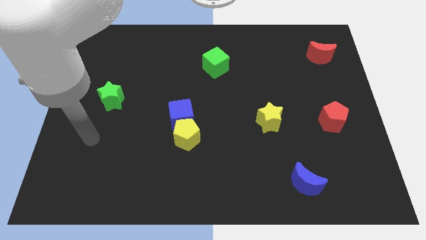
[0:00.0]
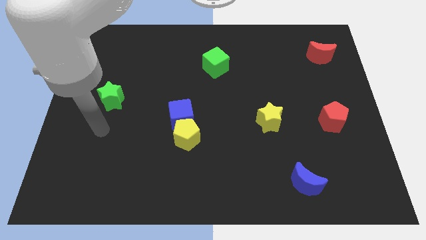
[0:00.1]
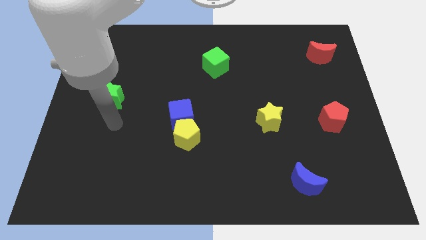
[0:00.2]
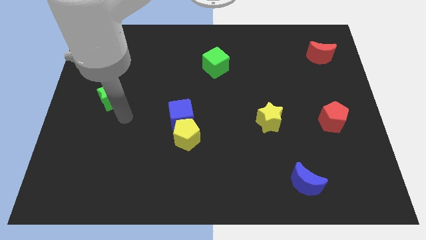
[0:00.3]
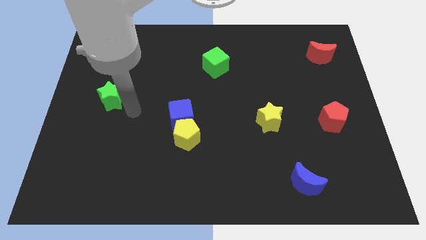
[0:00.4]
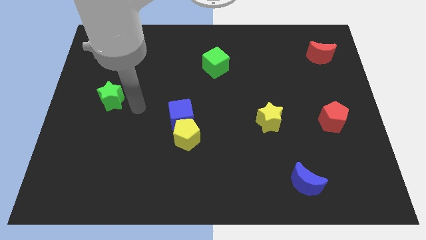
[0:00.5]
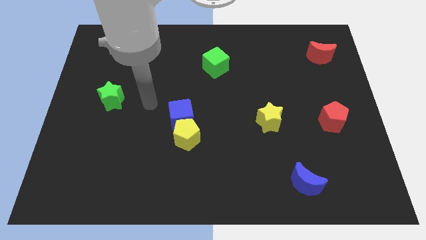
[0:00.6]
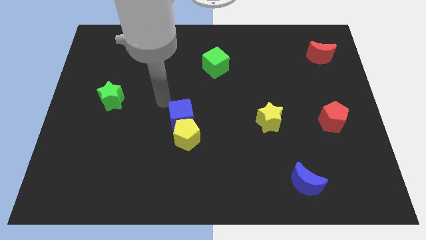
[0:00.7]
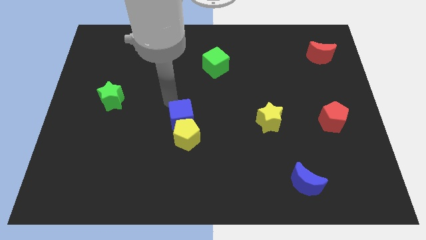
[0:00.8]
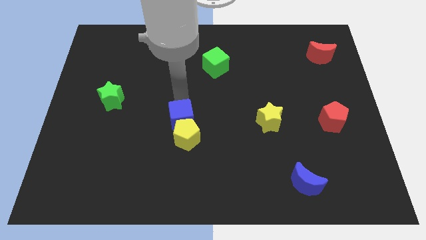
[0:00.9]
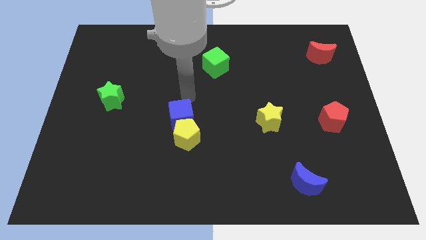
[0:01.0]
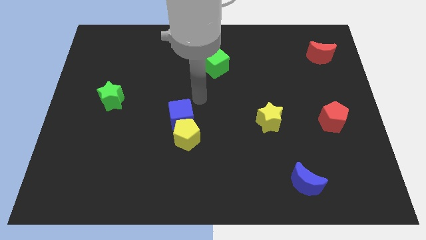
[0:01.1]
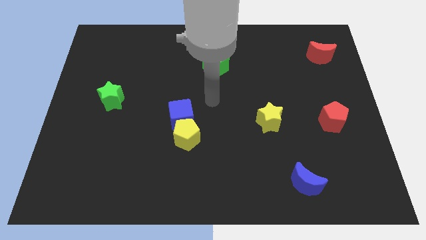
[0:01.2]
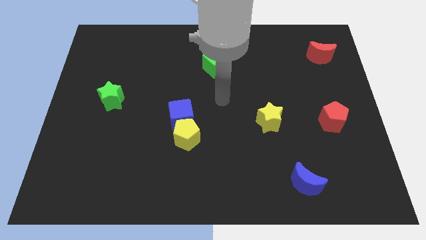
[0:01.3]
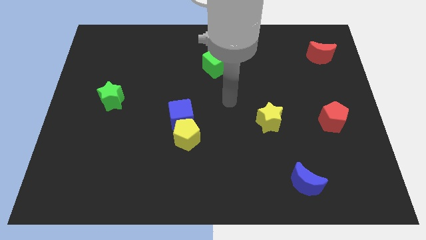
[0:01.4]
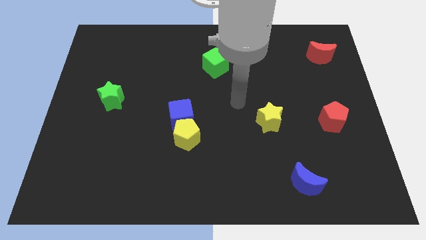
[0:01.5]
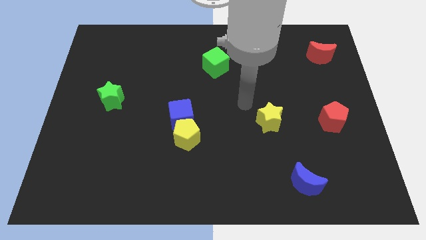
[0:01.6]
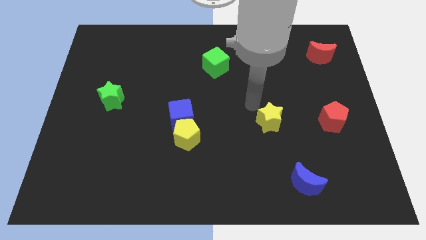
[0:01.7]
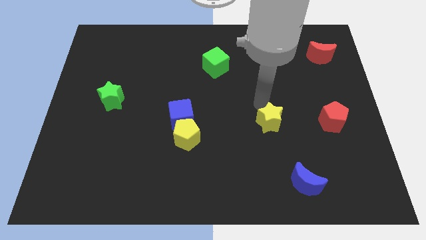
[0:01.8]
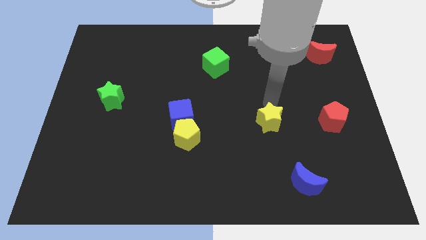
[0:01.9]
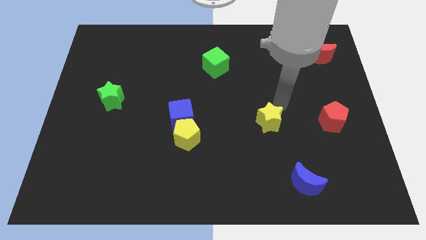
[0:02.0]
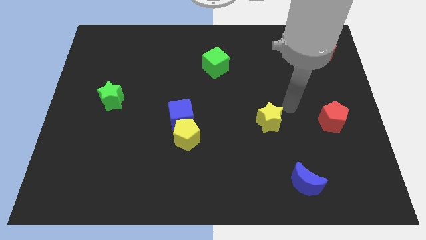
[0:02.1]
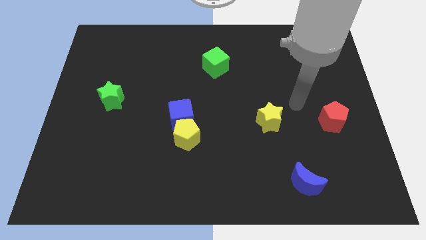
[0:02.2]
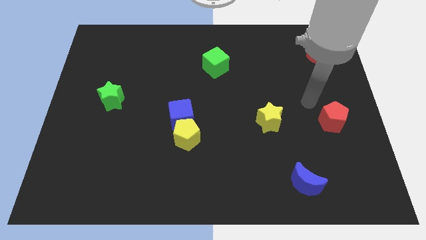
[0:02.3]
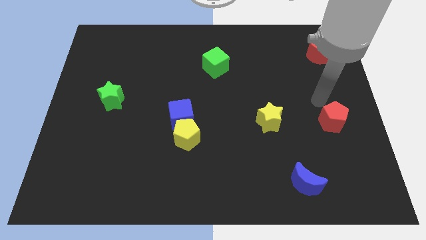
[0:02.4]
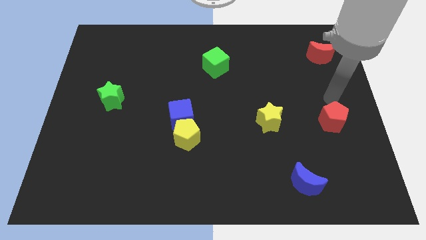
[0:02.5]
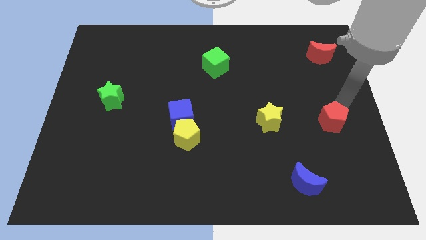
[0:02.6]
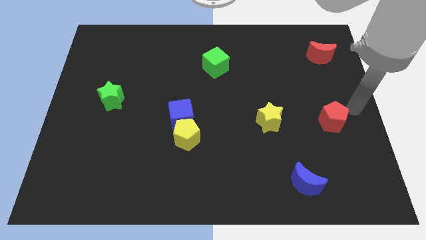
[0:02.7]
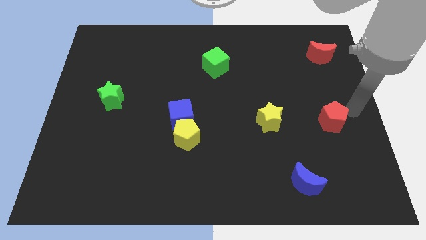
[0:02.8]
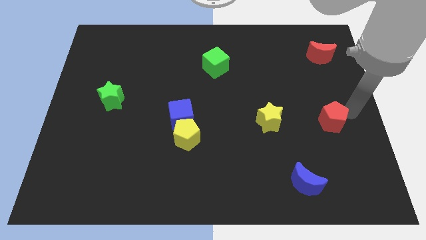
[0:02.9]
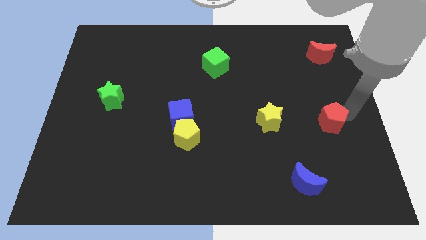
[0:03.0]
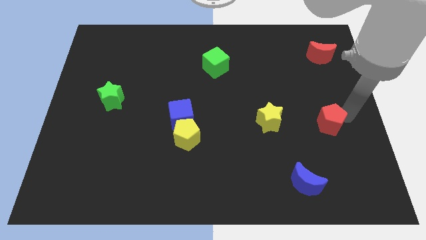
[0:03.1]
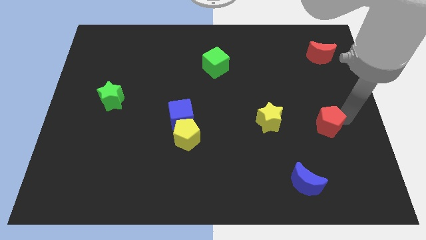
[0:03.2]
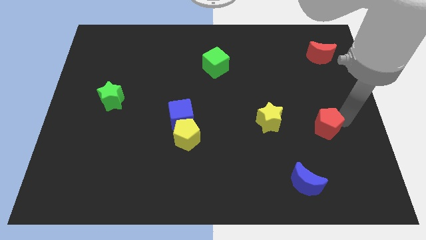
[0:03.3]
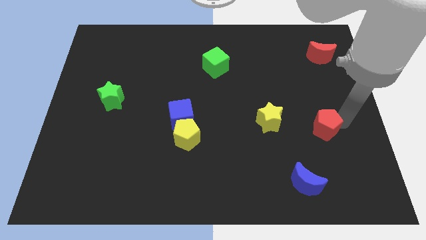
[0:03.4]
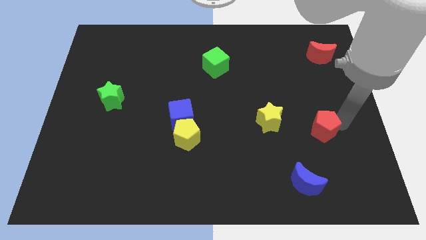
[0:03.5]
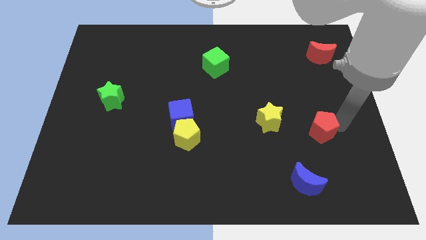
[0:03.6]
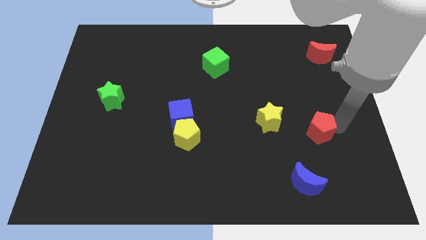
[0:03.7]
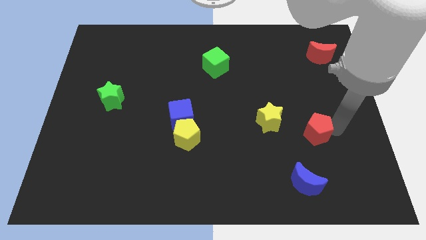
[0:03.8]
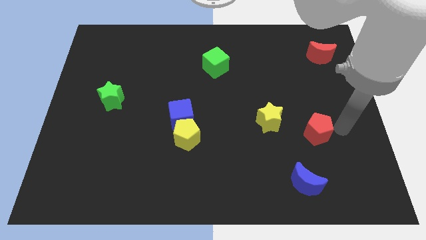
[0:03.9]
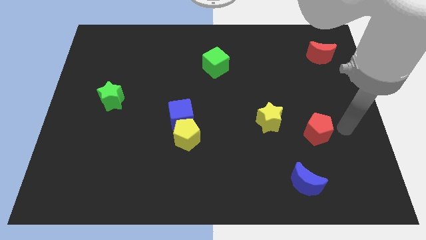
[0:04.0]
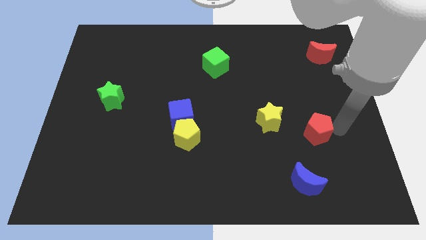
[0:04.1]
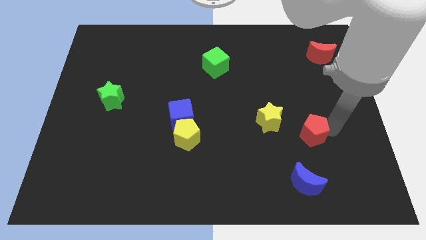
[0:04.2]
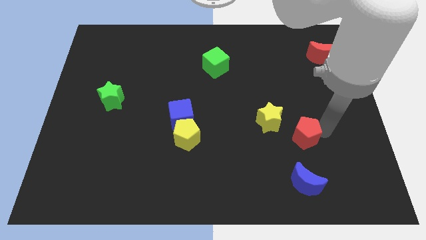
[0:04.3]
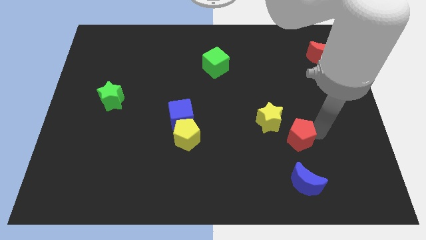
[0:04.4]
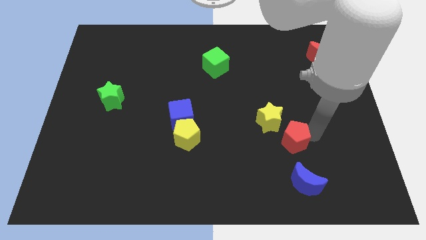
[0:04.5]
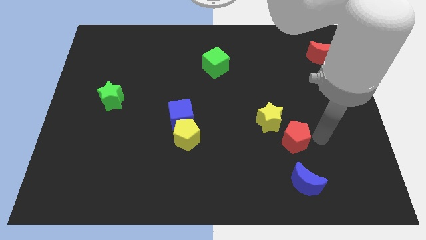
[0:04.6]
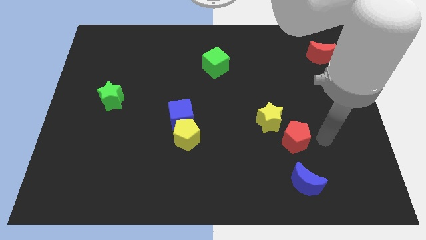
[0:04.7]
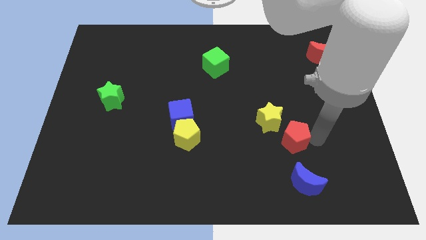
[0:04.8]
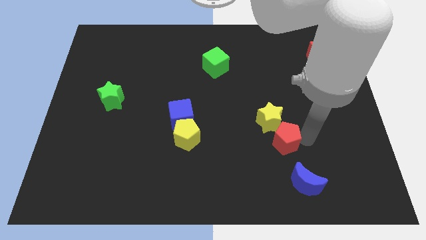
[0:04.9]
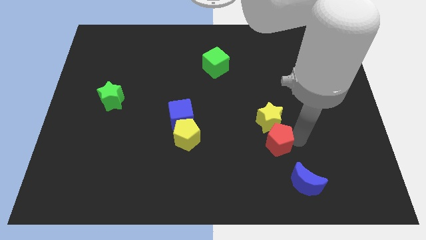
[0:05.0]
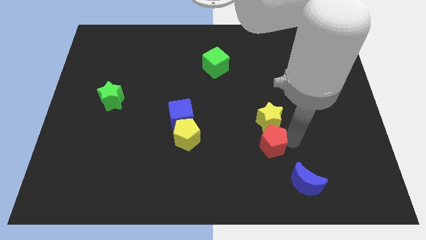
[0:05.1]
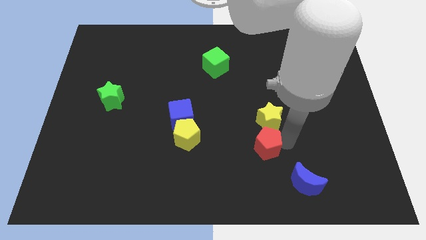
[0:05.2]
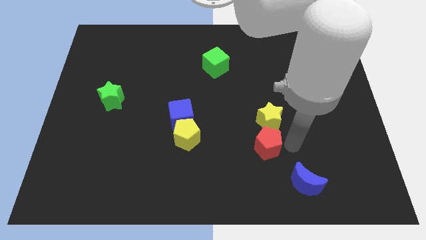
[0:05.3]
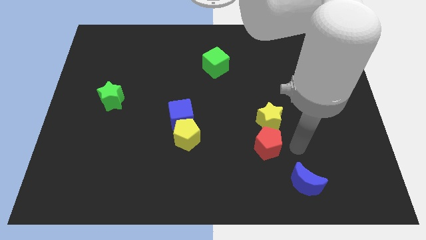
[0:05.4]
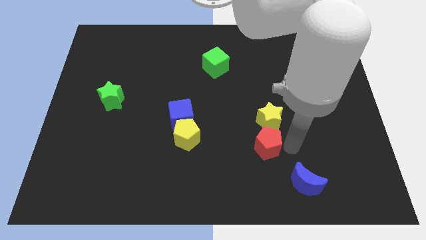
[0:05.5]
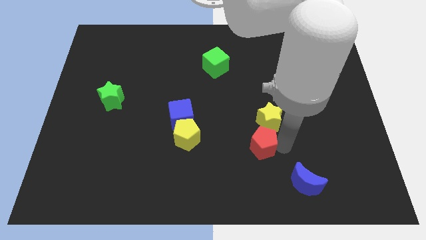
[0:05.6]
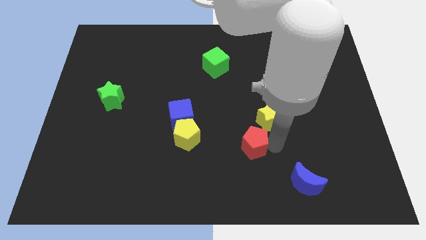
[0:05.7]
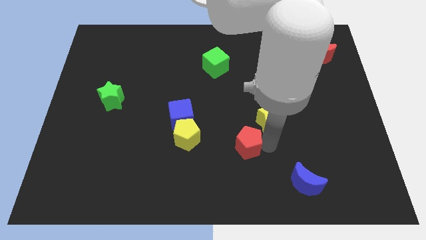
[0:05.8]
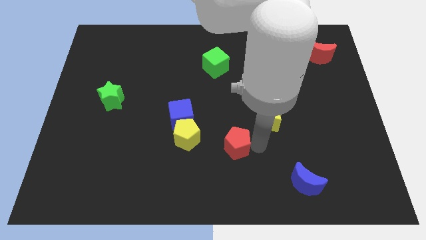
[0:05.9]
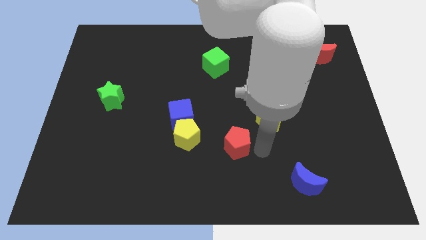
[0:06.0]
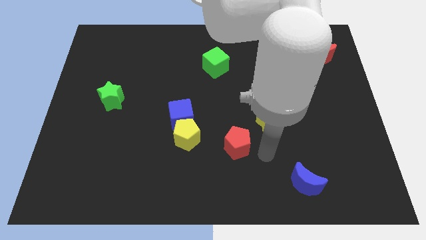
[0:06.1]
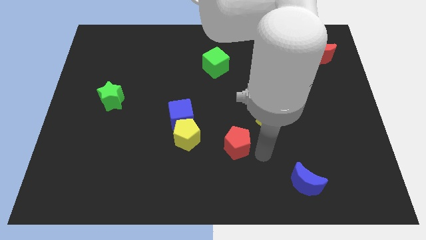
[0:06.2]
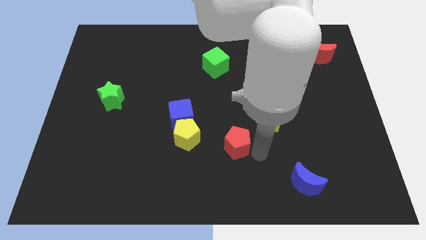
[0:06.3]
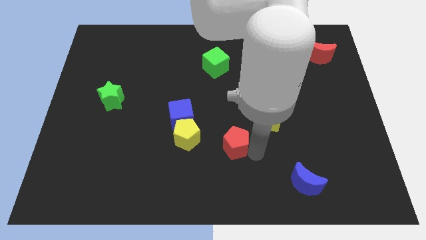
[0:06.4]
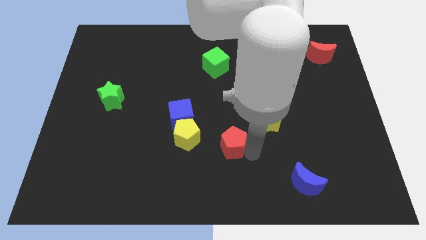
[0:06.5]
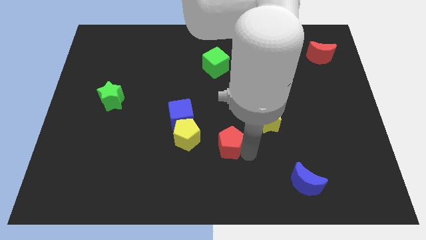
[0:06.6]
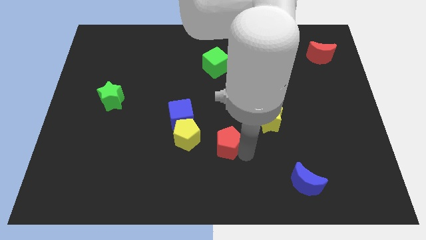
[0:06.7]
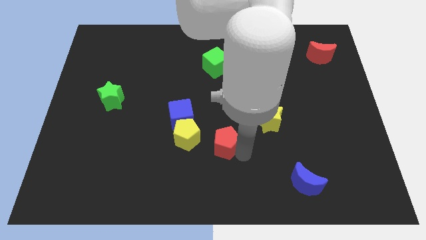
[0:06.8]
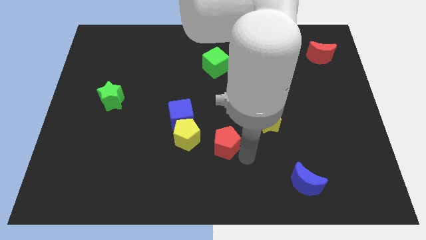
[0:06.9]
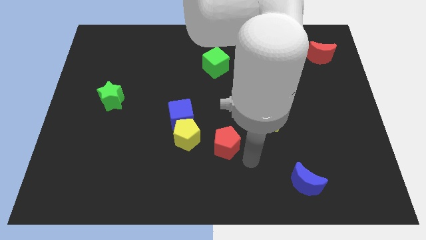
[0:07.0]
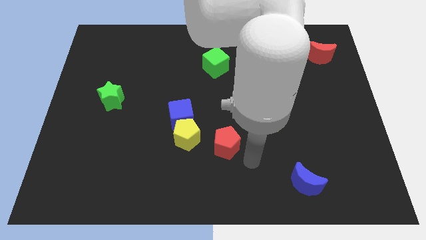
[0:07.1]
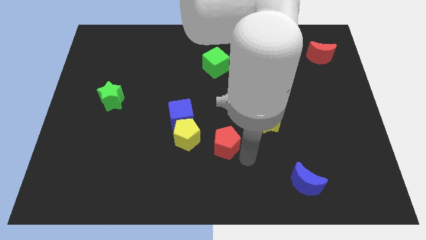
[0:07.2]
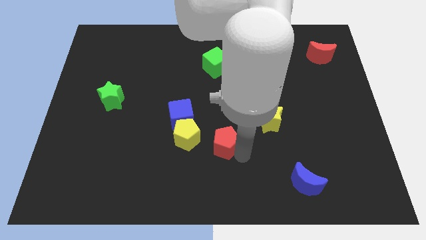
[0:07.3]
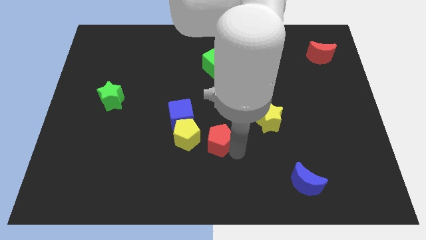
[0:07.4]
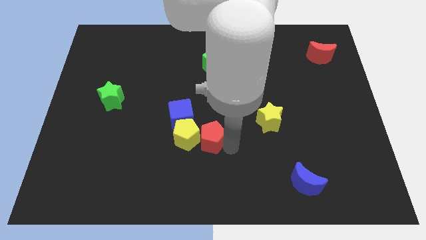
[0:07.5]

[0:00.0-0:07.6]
put the red pentagon to the yellow pentagon
